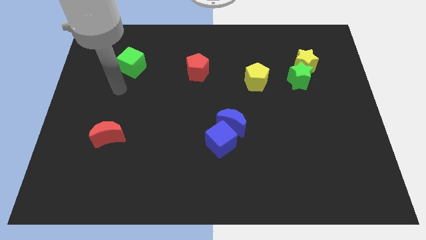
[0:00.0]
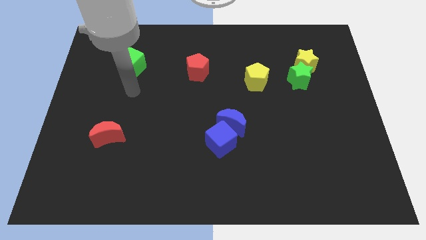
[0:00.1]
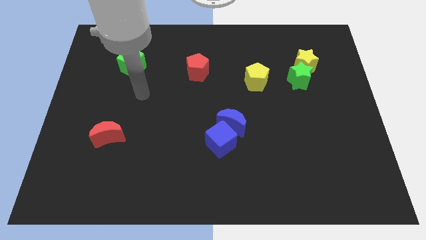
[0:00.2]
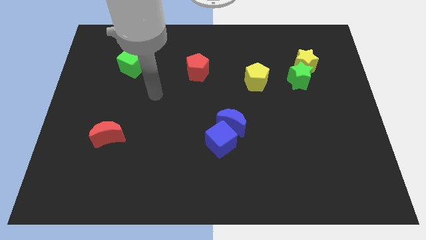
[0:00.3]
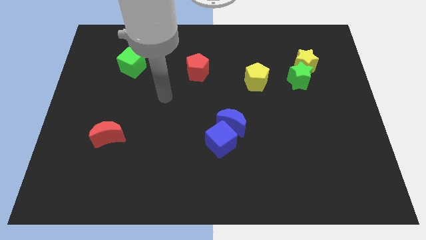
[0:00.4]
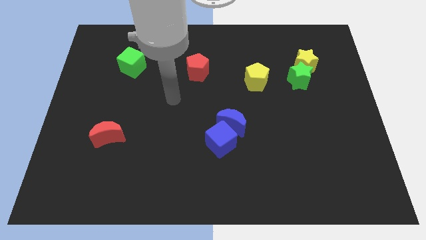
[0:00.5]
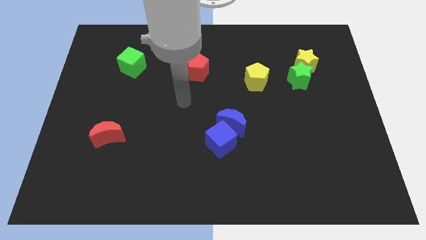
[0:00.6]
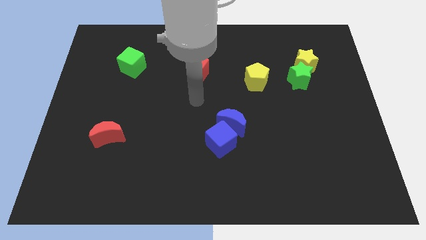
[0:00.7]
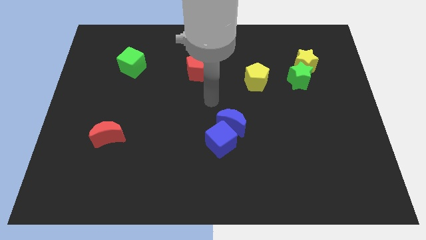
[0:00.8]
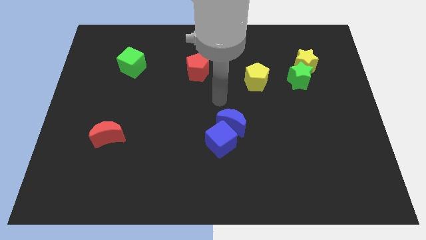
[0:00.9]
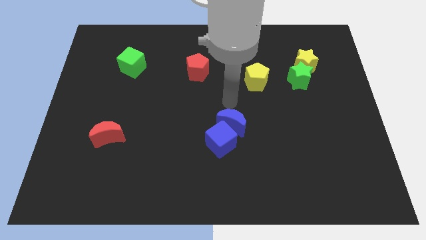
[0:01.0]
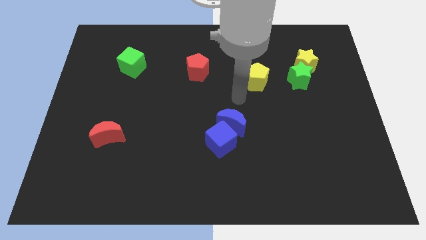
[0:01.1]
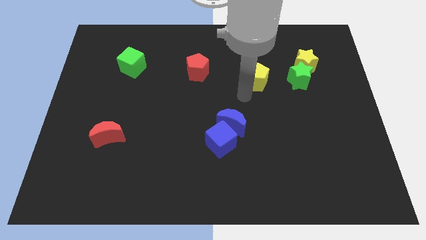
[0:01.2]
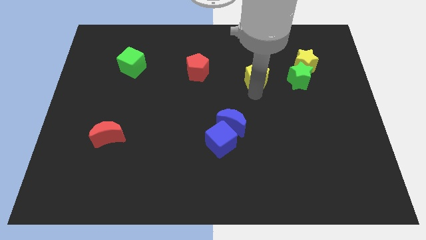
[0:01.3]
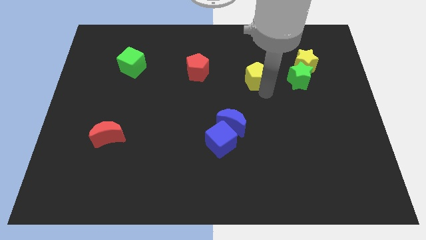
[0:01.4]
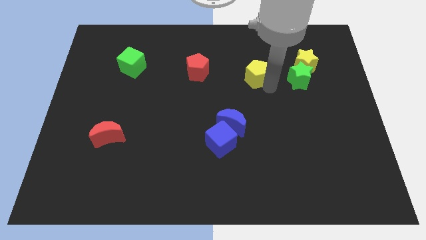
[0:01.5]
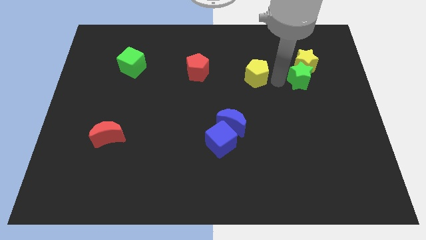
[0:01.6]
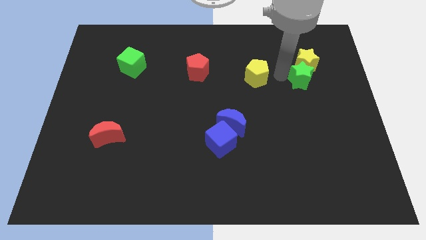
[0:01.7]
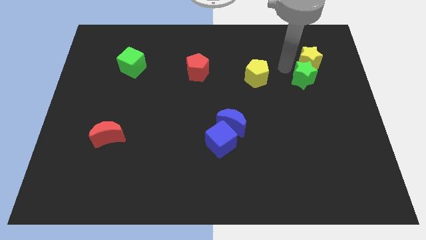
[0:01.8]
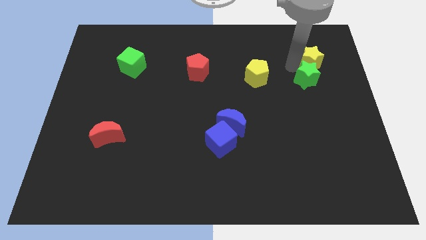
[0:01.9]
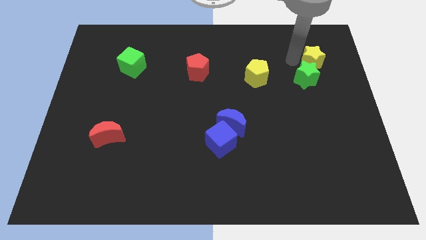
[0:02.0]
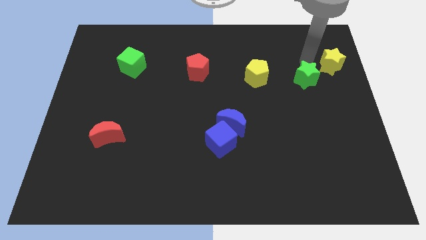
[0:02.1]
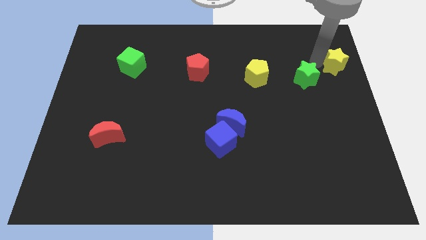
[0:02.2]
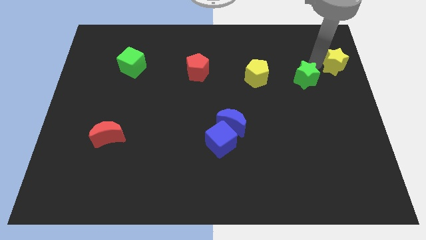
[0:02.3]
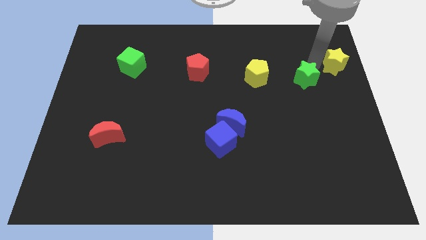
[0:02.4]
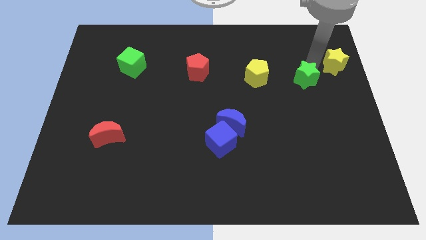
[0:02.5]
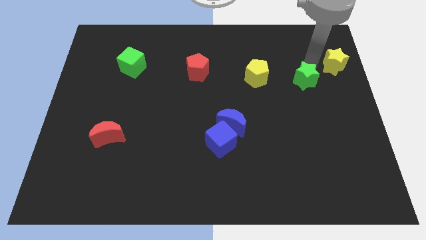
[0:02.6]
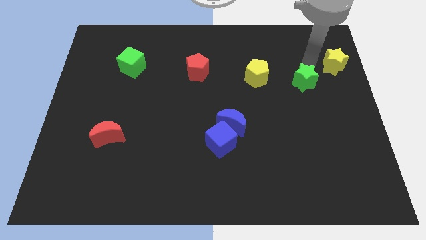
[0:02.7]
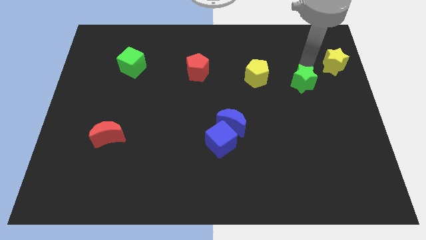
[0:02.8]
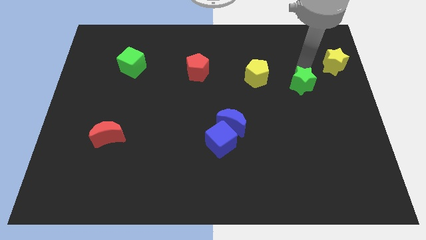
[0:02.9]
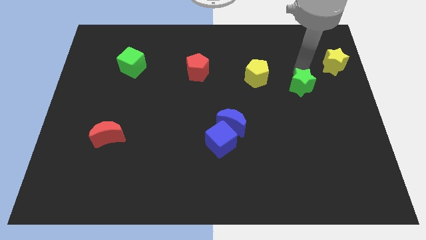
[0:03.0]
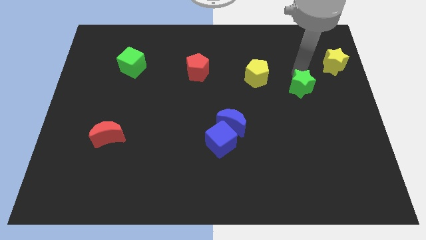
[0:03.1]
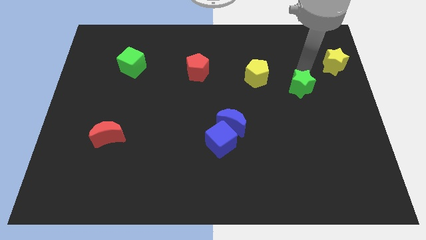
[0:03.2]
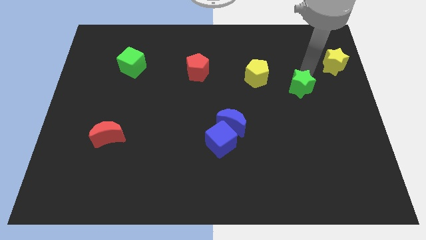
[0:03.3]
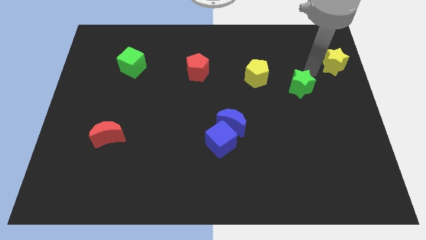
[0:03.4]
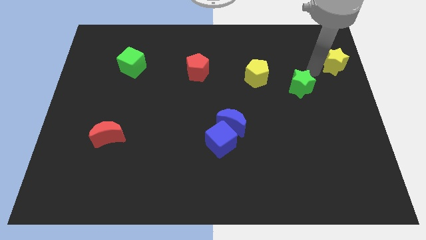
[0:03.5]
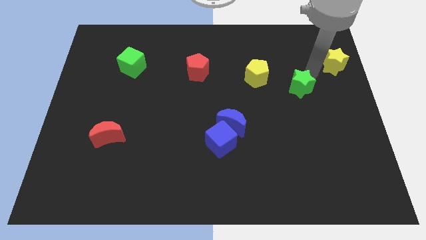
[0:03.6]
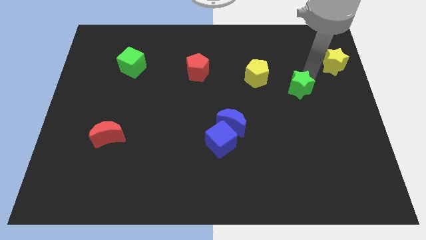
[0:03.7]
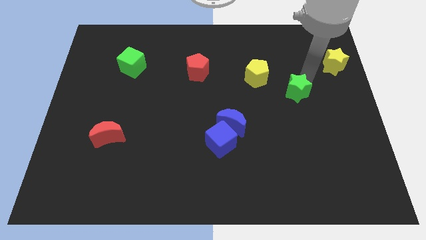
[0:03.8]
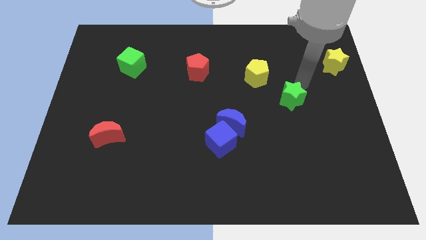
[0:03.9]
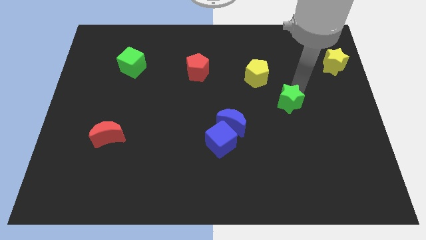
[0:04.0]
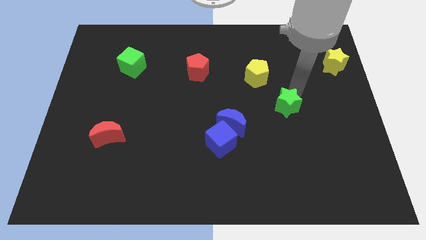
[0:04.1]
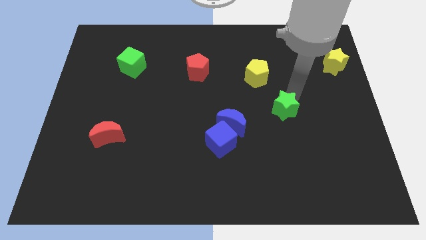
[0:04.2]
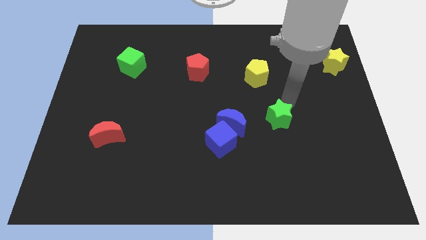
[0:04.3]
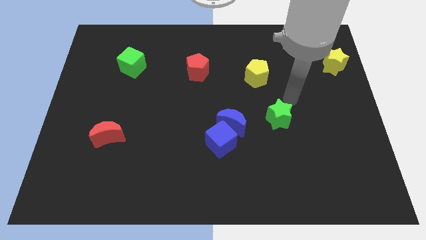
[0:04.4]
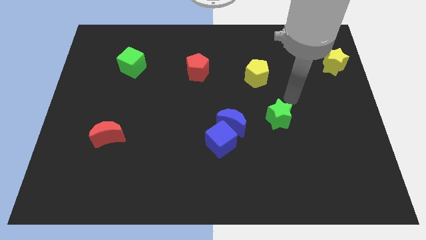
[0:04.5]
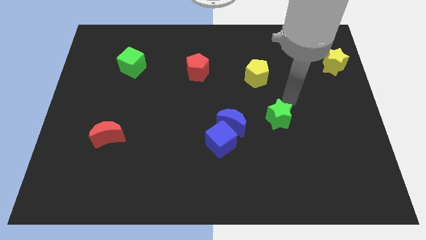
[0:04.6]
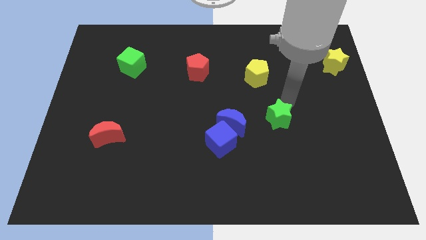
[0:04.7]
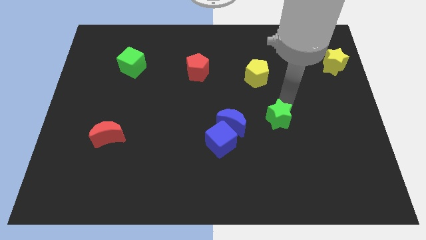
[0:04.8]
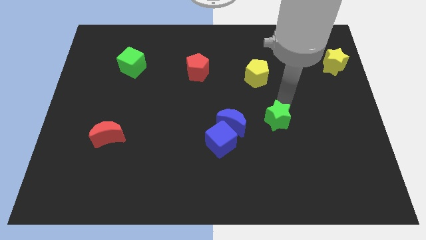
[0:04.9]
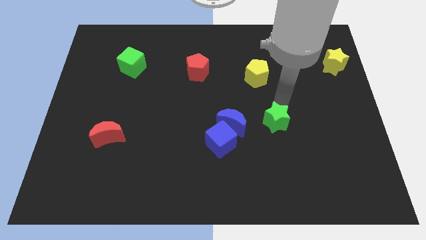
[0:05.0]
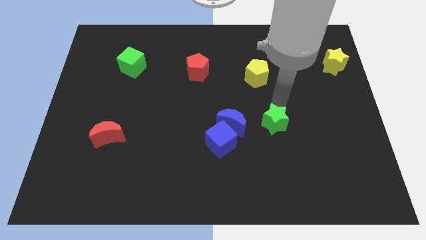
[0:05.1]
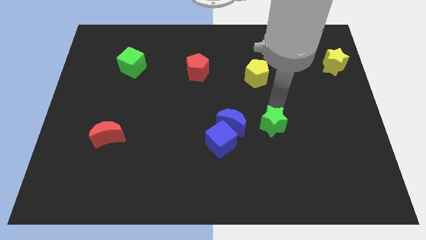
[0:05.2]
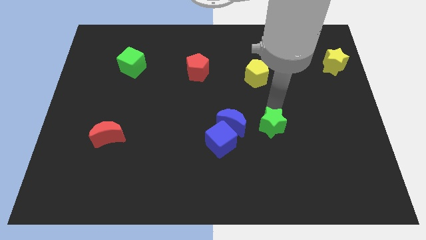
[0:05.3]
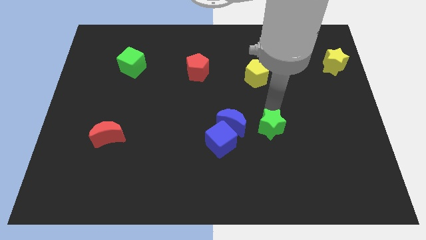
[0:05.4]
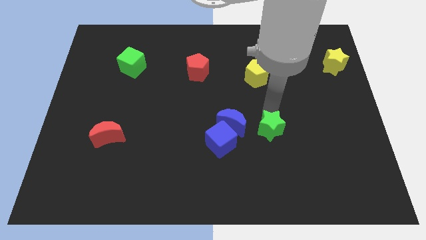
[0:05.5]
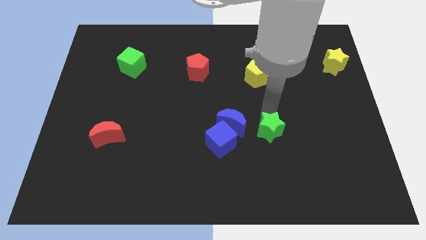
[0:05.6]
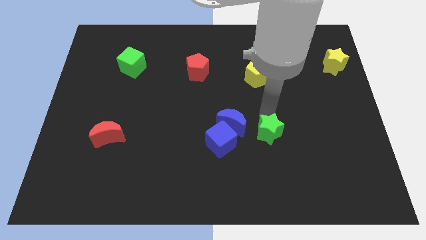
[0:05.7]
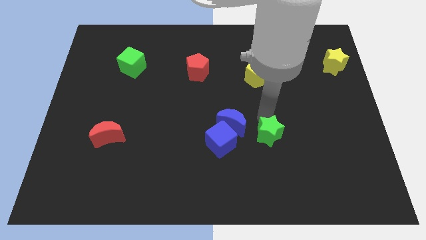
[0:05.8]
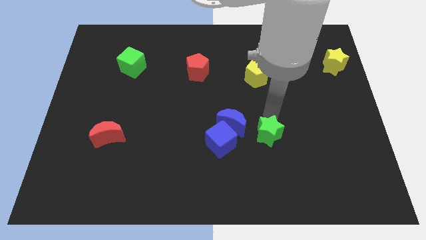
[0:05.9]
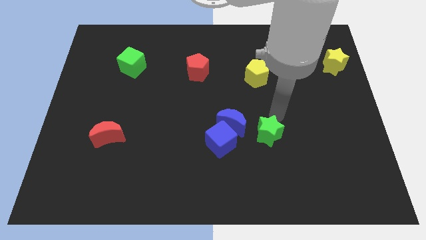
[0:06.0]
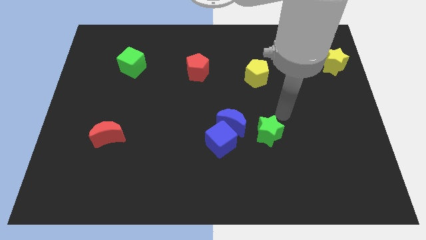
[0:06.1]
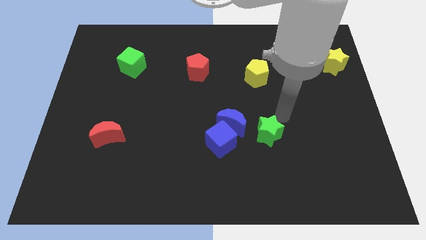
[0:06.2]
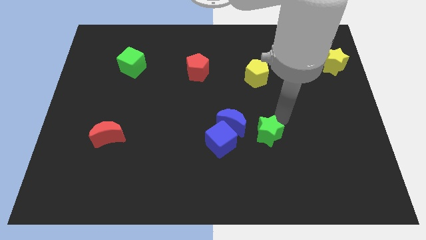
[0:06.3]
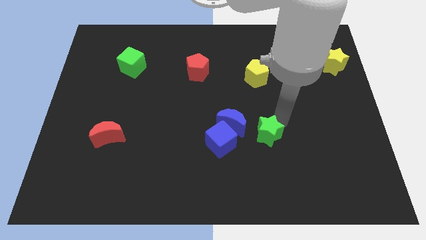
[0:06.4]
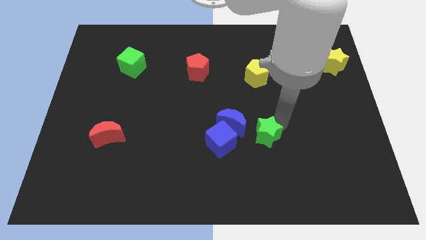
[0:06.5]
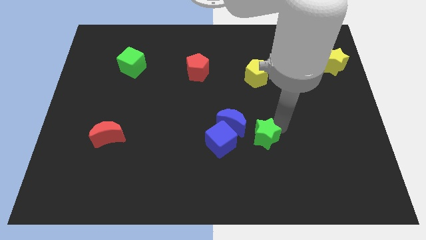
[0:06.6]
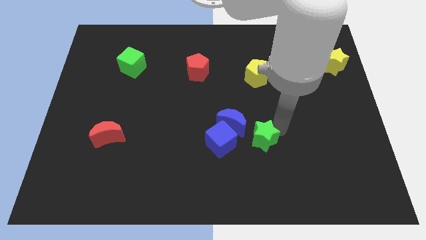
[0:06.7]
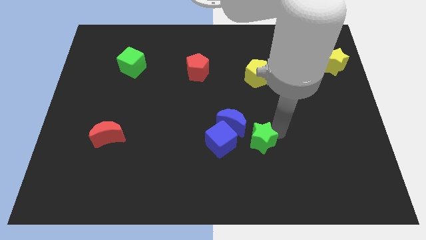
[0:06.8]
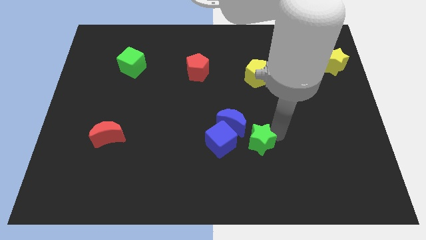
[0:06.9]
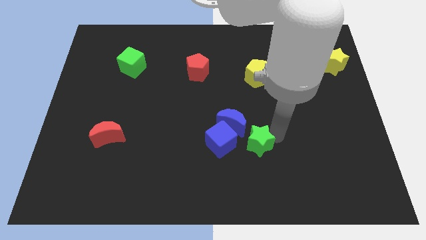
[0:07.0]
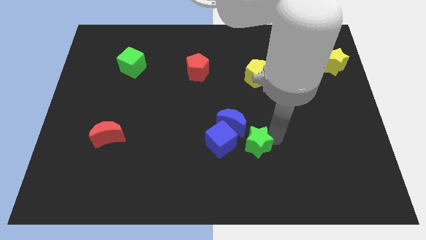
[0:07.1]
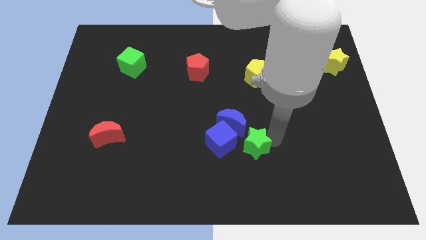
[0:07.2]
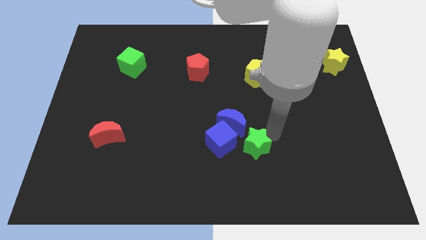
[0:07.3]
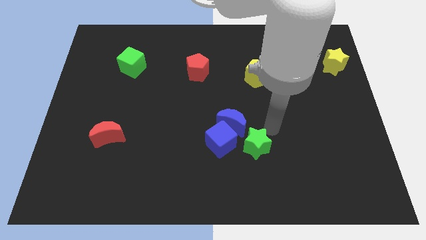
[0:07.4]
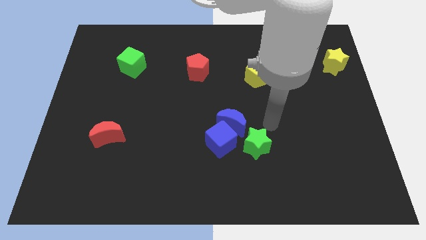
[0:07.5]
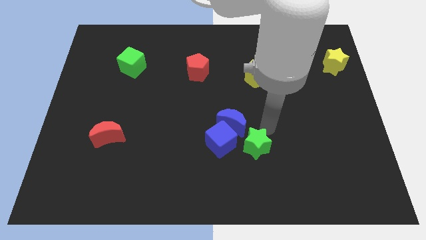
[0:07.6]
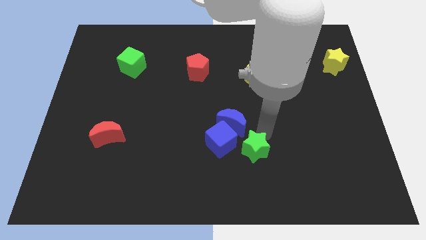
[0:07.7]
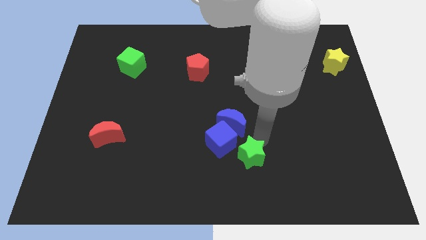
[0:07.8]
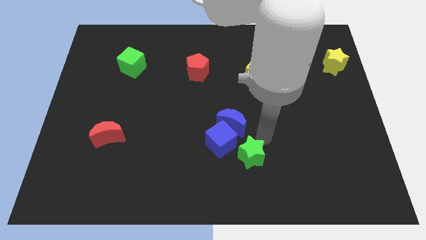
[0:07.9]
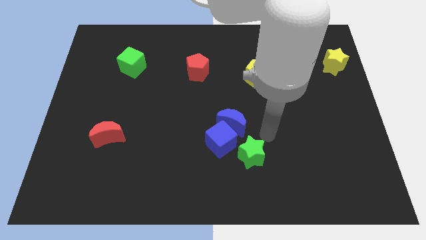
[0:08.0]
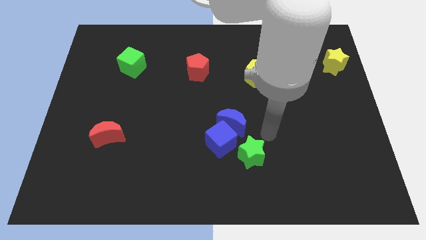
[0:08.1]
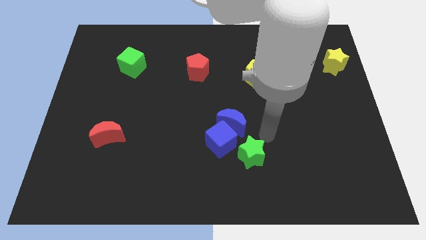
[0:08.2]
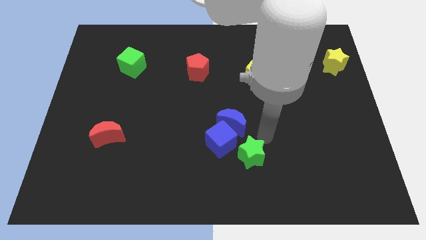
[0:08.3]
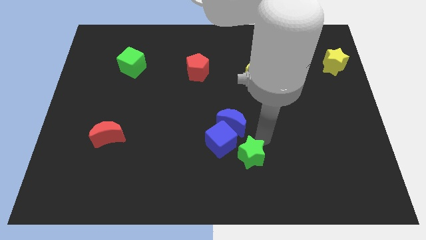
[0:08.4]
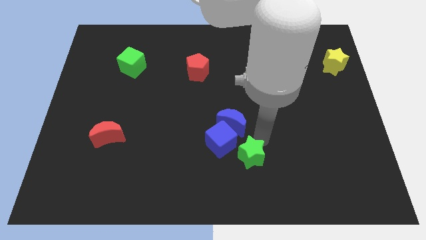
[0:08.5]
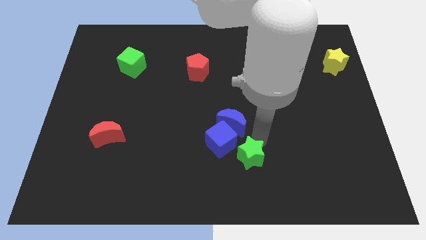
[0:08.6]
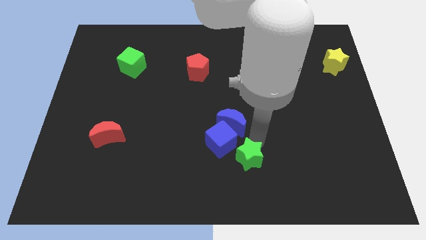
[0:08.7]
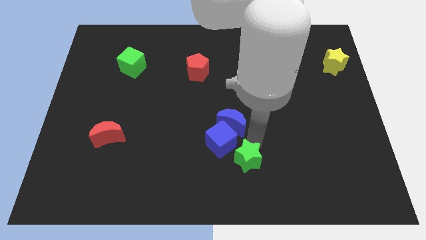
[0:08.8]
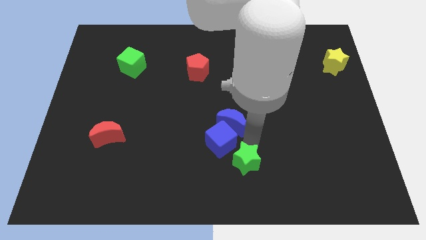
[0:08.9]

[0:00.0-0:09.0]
push the green star to the bottom side
